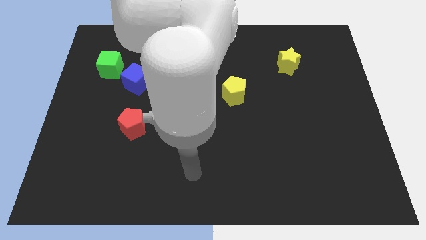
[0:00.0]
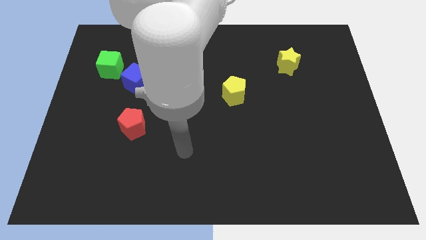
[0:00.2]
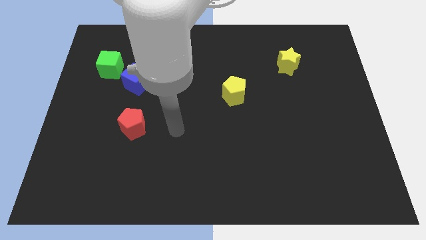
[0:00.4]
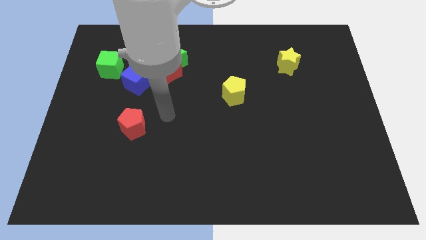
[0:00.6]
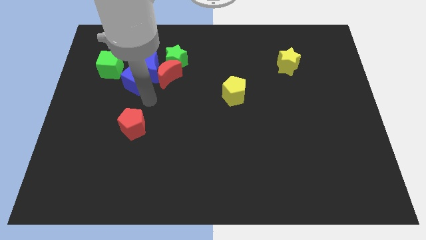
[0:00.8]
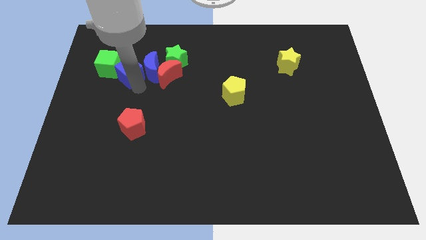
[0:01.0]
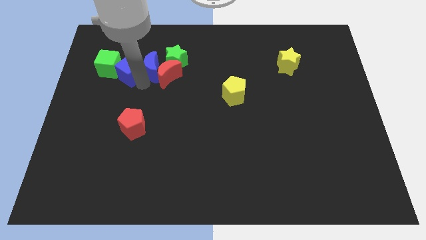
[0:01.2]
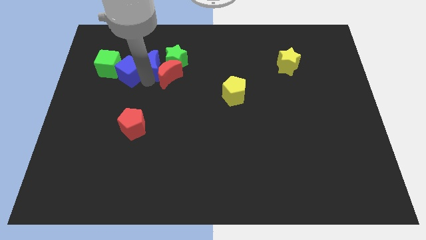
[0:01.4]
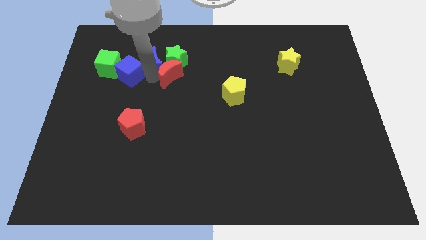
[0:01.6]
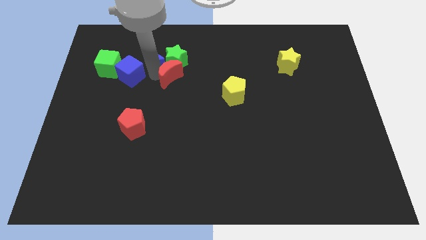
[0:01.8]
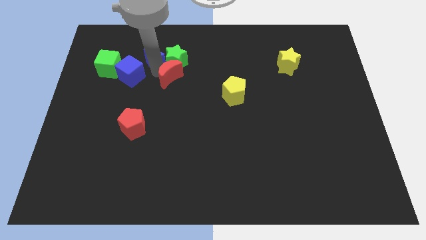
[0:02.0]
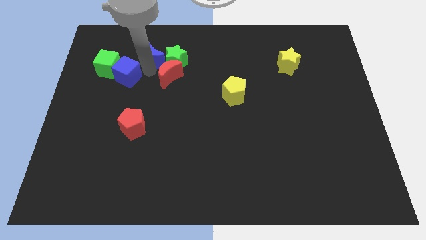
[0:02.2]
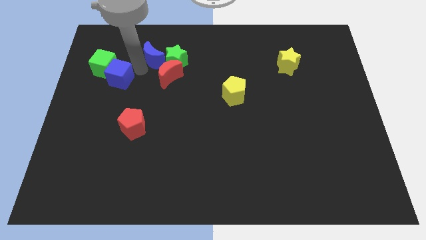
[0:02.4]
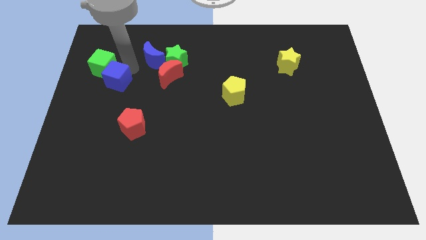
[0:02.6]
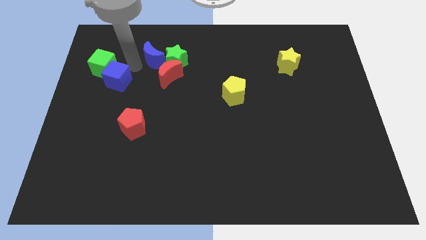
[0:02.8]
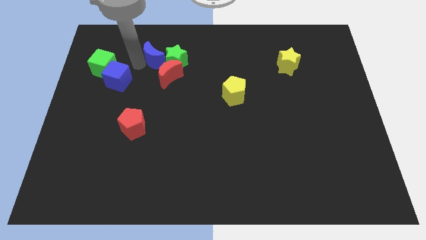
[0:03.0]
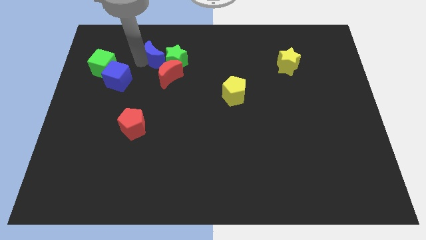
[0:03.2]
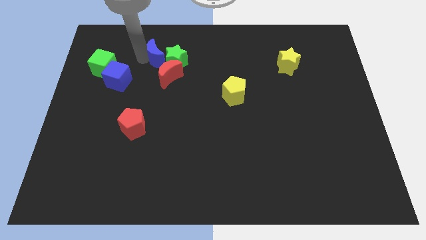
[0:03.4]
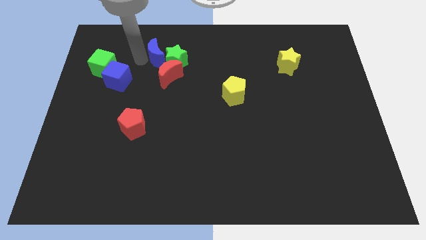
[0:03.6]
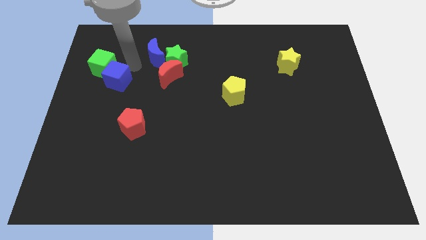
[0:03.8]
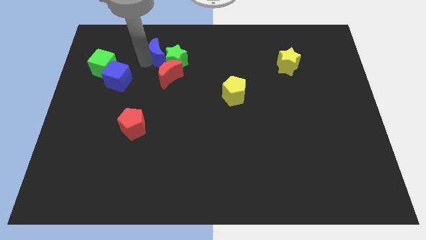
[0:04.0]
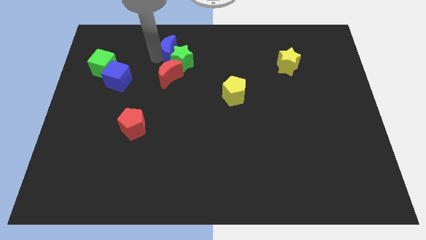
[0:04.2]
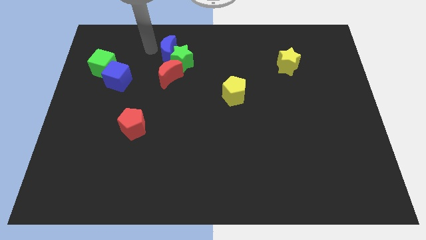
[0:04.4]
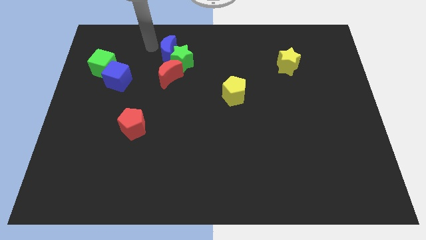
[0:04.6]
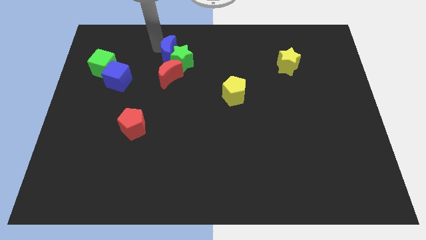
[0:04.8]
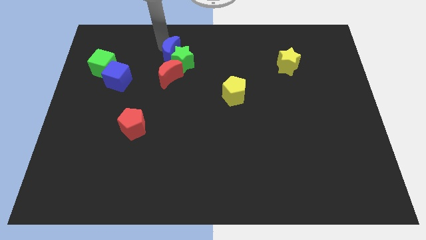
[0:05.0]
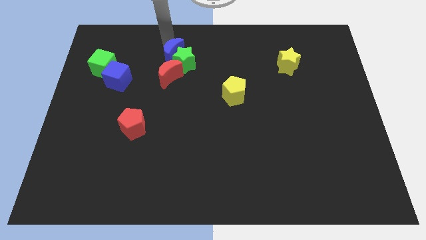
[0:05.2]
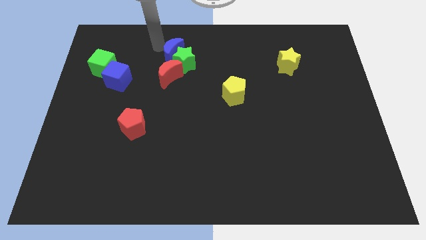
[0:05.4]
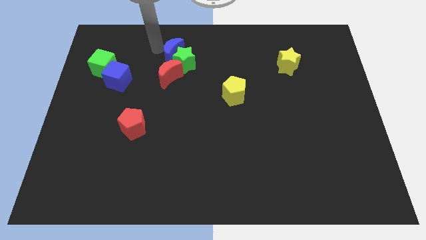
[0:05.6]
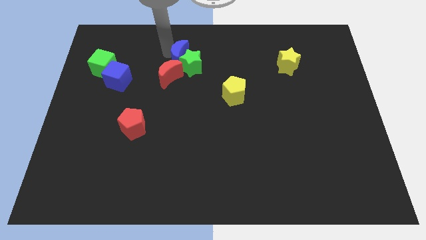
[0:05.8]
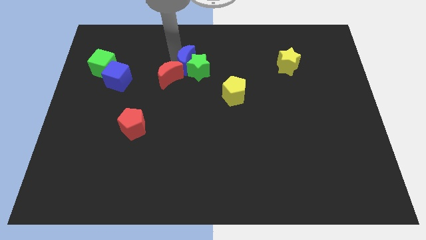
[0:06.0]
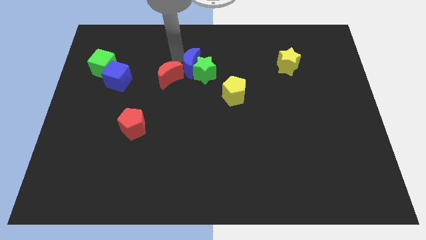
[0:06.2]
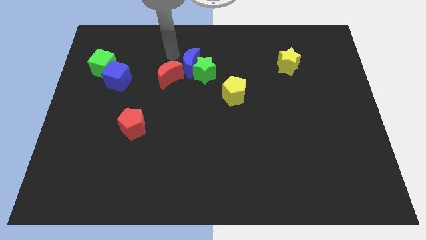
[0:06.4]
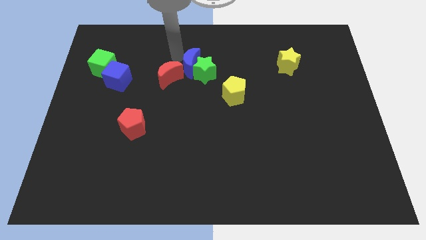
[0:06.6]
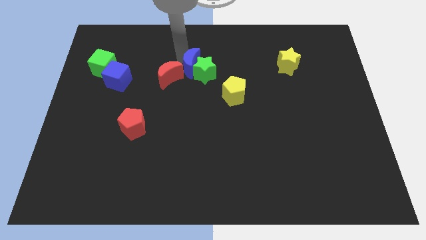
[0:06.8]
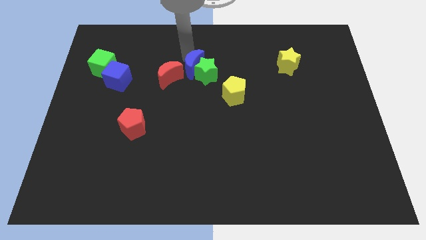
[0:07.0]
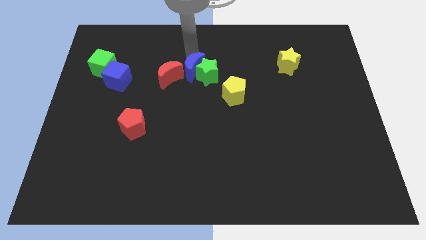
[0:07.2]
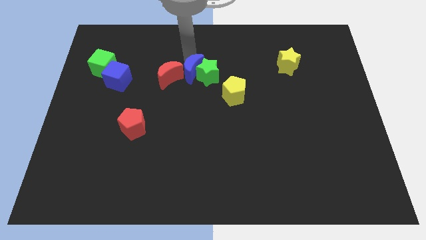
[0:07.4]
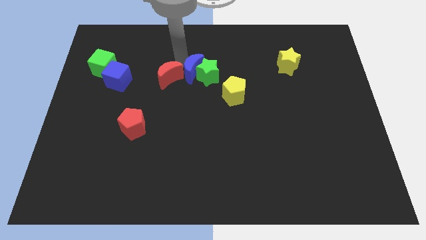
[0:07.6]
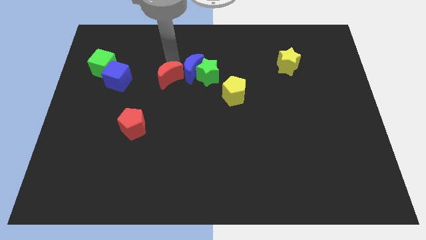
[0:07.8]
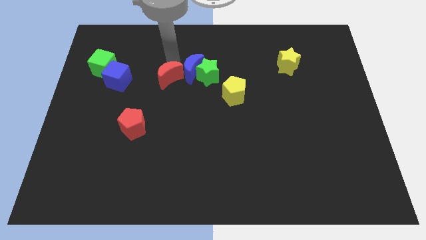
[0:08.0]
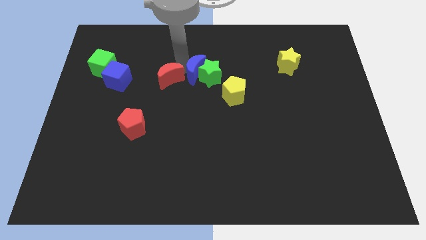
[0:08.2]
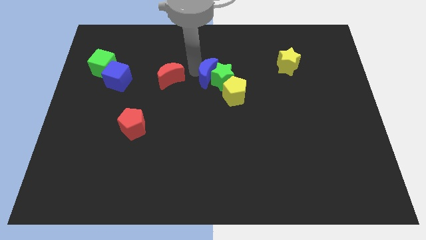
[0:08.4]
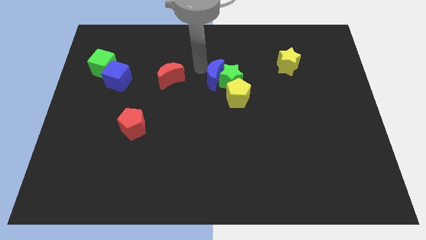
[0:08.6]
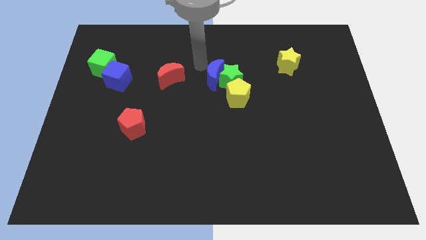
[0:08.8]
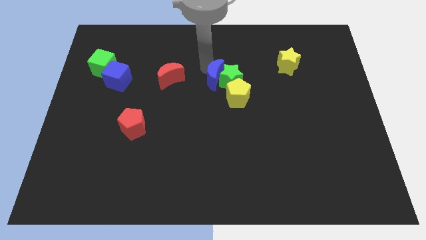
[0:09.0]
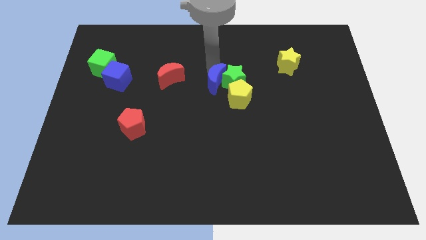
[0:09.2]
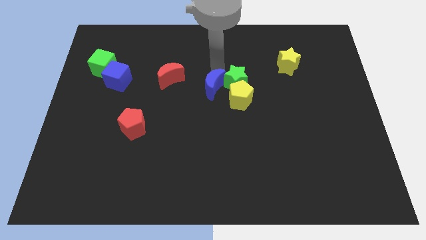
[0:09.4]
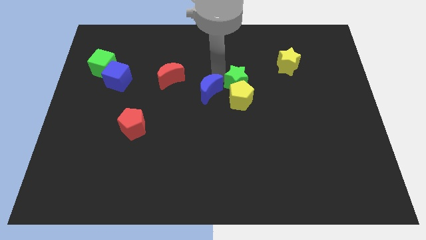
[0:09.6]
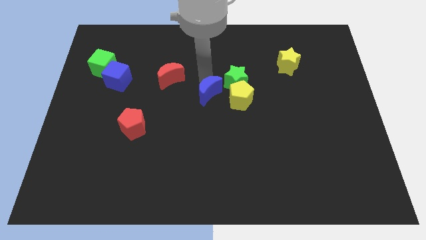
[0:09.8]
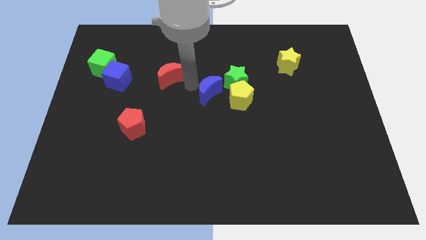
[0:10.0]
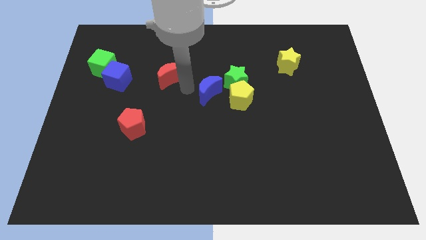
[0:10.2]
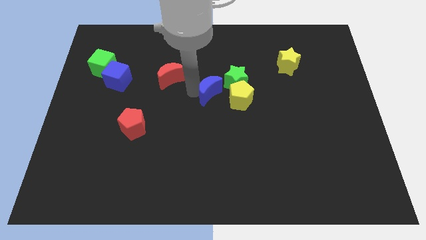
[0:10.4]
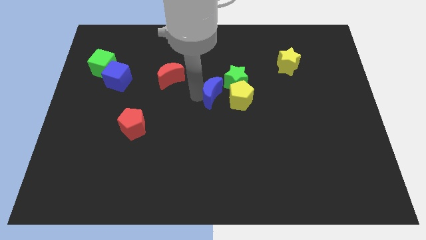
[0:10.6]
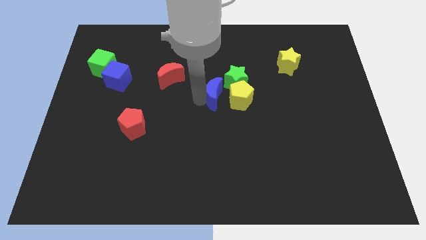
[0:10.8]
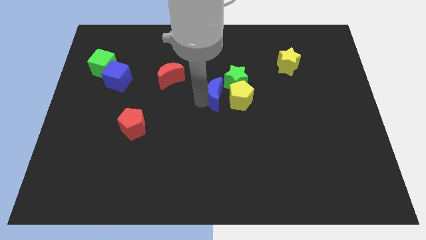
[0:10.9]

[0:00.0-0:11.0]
slide the blue moon next to the yellow pentagon

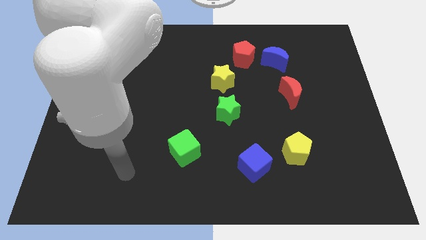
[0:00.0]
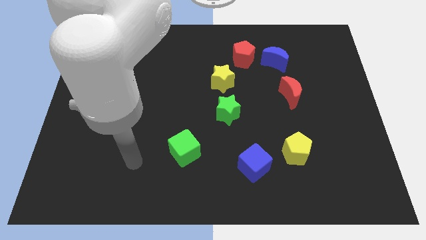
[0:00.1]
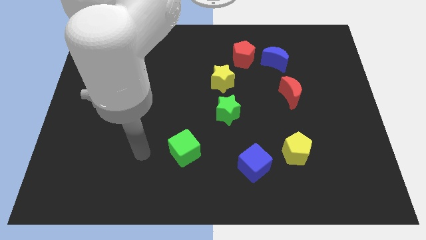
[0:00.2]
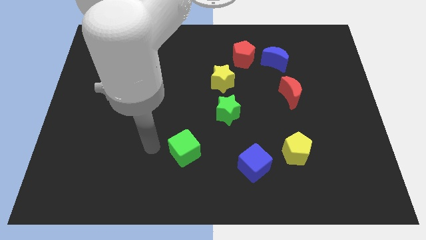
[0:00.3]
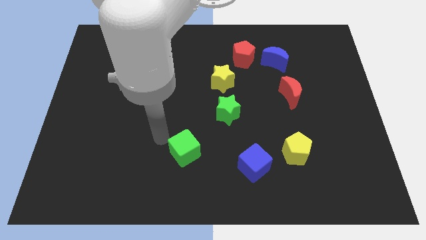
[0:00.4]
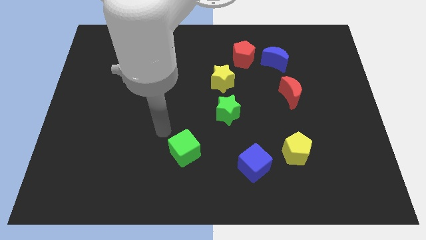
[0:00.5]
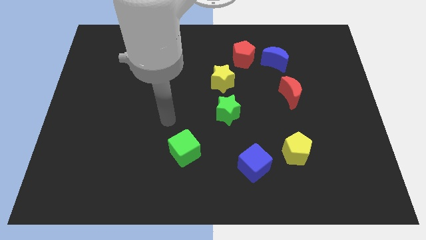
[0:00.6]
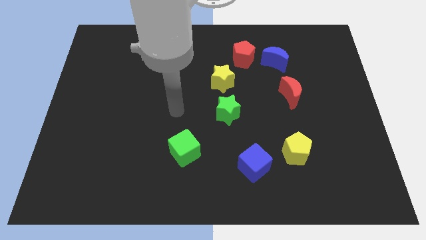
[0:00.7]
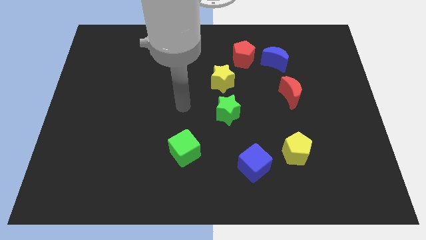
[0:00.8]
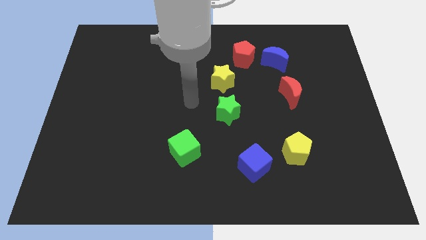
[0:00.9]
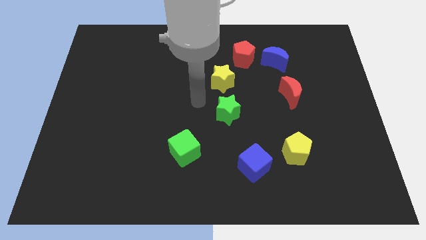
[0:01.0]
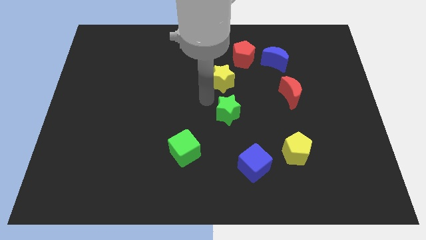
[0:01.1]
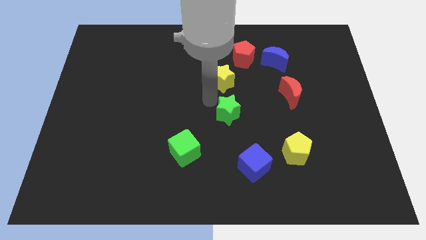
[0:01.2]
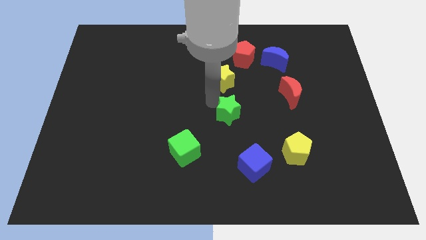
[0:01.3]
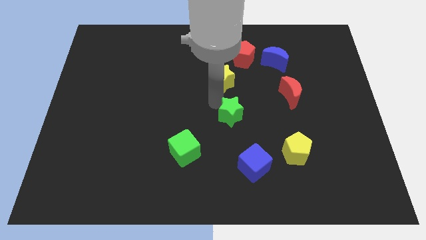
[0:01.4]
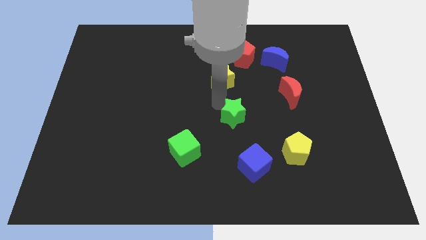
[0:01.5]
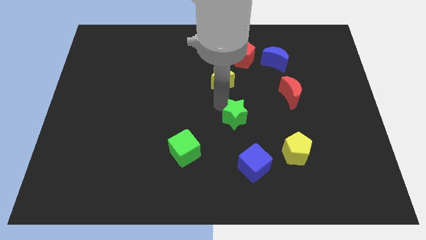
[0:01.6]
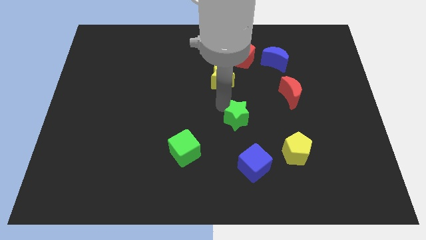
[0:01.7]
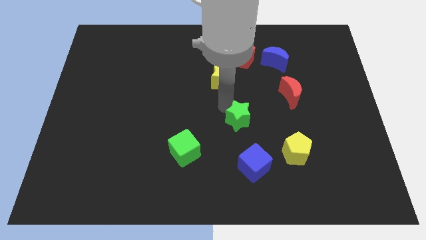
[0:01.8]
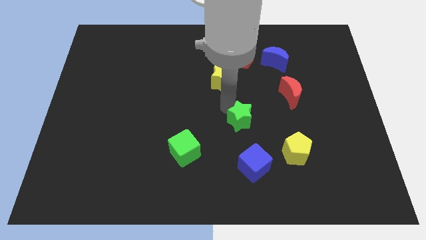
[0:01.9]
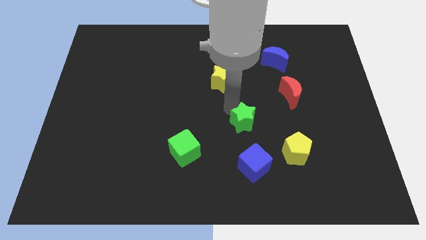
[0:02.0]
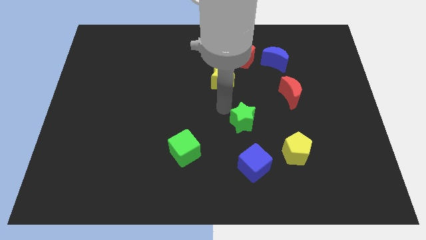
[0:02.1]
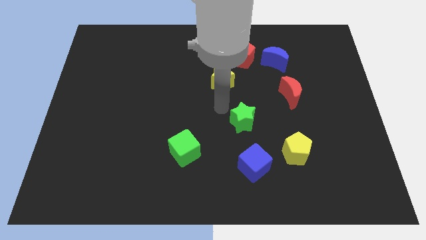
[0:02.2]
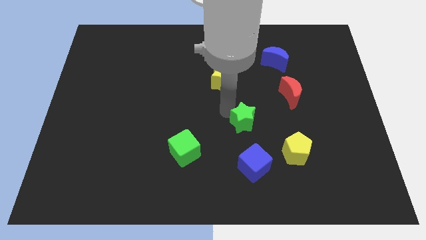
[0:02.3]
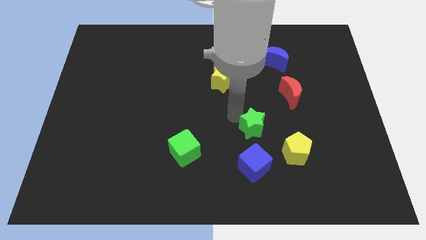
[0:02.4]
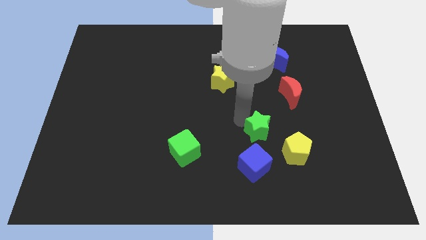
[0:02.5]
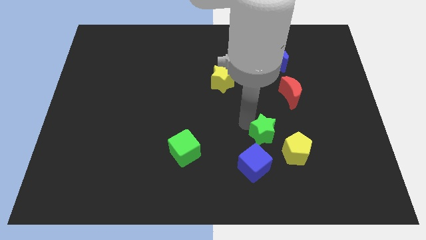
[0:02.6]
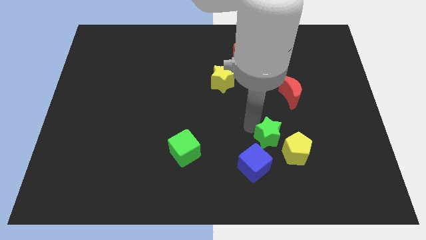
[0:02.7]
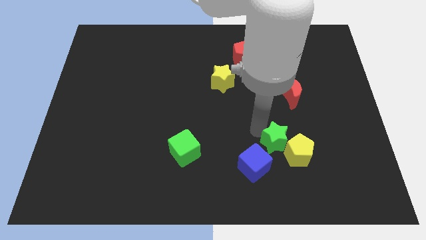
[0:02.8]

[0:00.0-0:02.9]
put the green star towards the yellow pentagon
